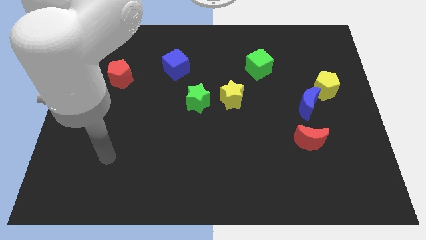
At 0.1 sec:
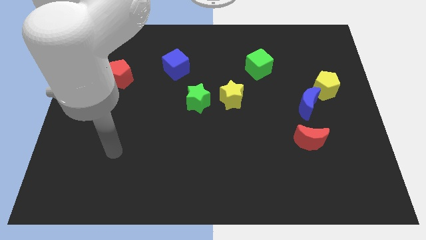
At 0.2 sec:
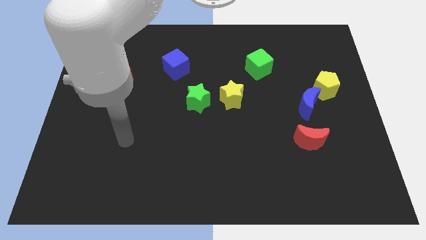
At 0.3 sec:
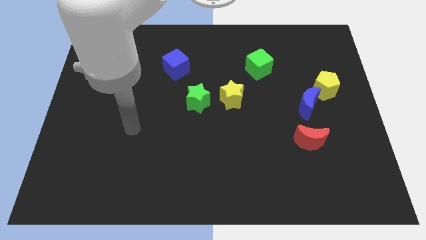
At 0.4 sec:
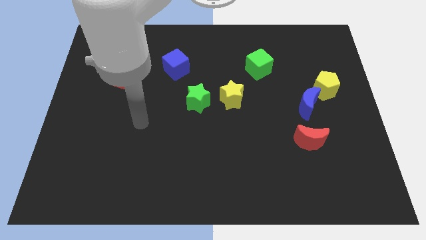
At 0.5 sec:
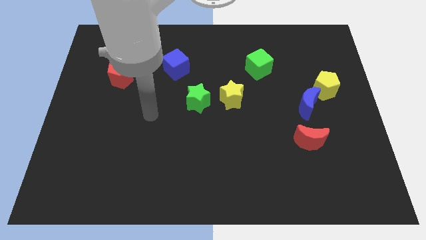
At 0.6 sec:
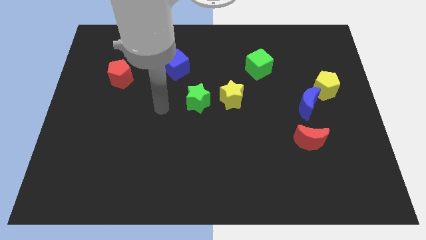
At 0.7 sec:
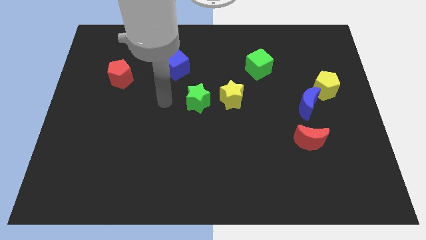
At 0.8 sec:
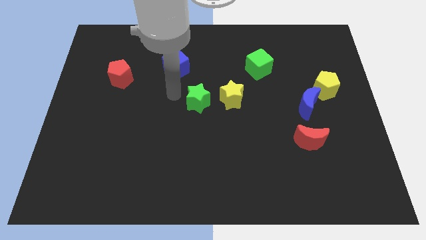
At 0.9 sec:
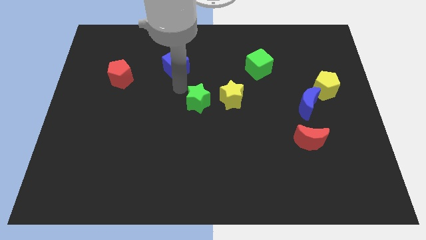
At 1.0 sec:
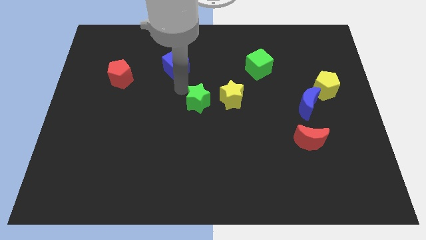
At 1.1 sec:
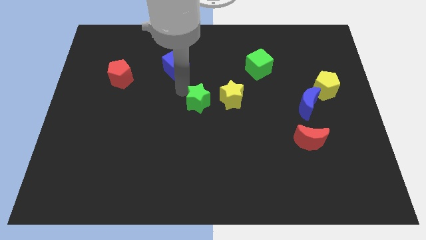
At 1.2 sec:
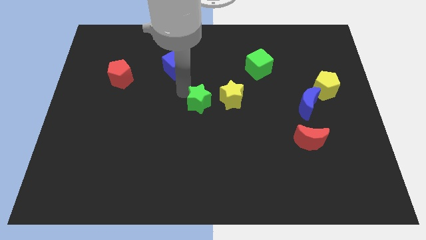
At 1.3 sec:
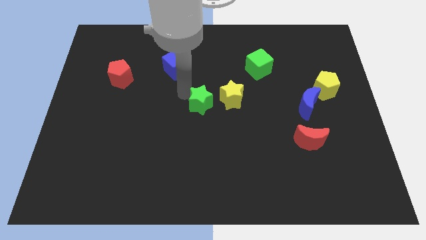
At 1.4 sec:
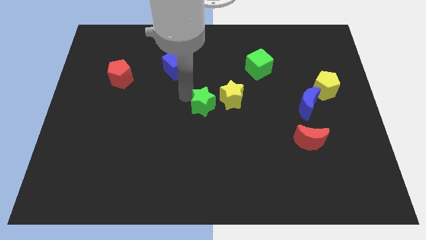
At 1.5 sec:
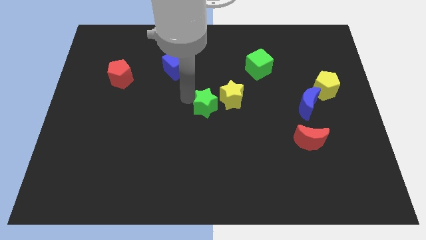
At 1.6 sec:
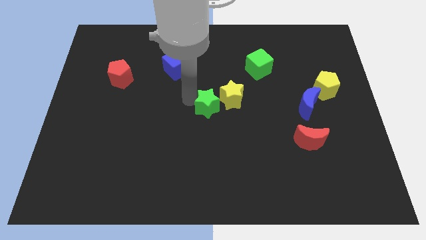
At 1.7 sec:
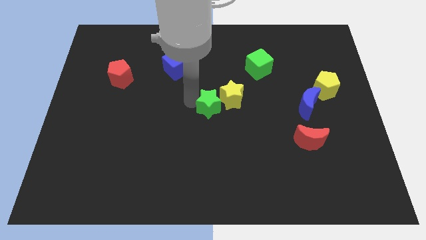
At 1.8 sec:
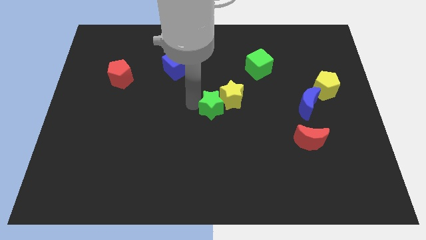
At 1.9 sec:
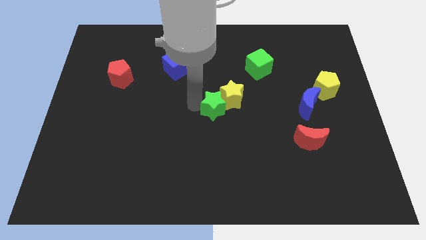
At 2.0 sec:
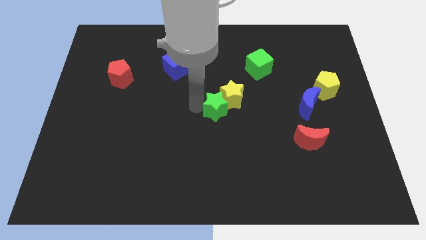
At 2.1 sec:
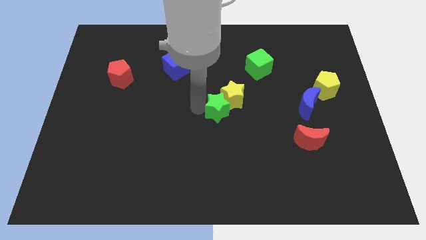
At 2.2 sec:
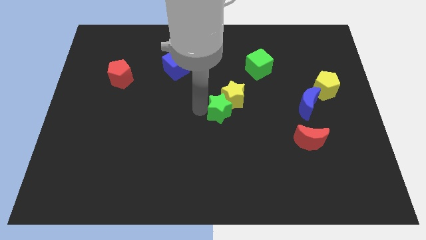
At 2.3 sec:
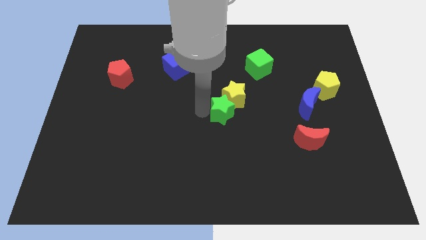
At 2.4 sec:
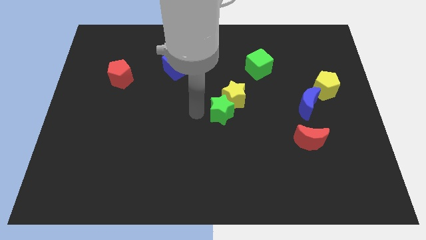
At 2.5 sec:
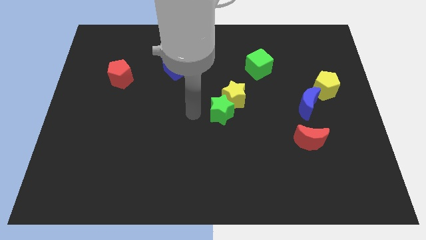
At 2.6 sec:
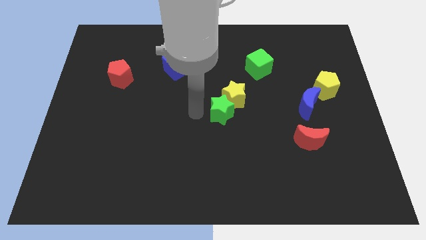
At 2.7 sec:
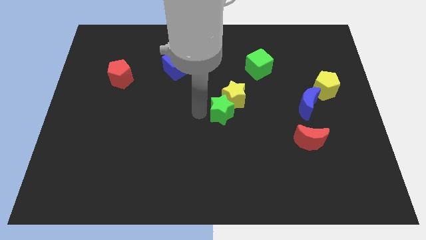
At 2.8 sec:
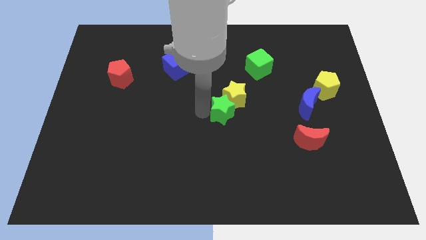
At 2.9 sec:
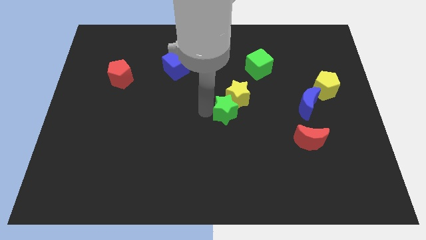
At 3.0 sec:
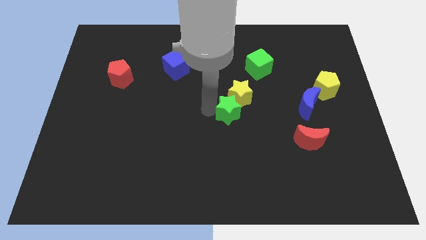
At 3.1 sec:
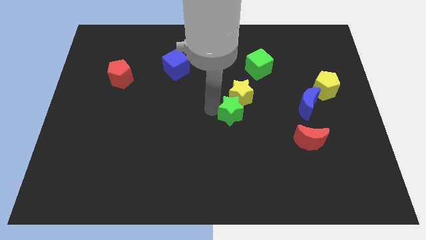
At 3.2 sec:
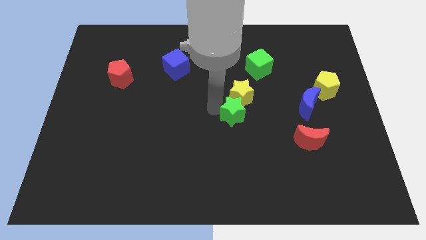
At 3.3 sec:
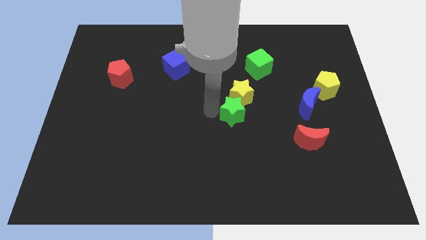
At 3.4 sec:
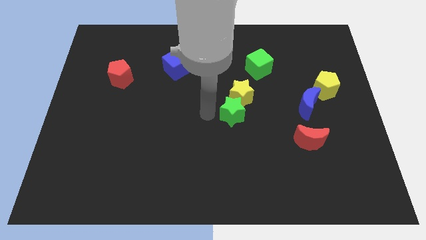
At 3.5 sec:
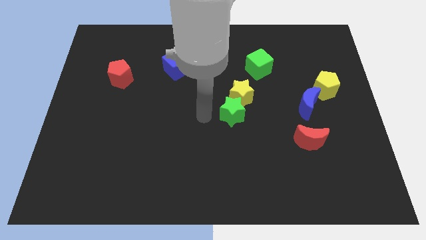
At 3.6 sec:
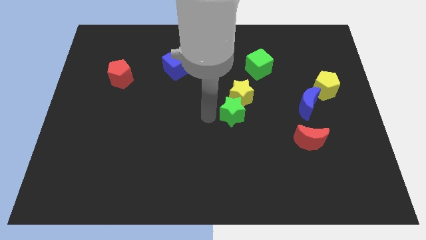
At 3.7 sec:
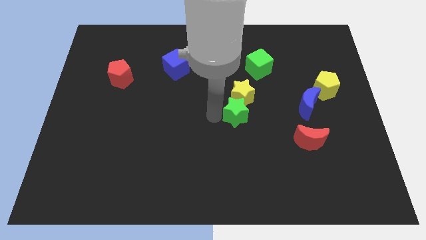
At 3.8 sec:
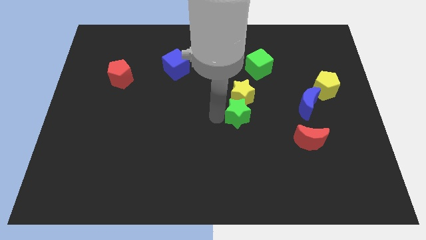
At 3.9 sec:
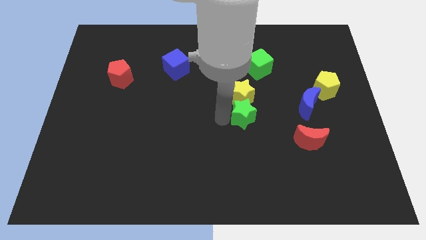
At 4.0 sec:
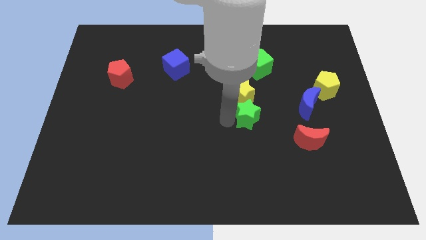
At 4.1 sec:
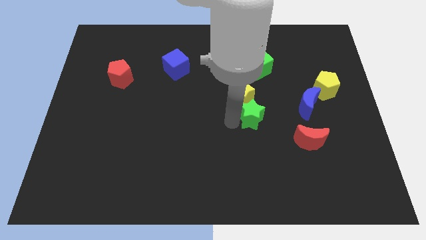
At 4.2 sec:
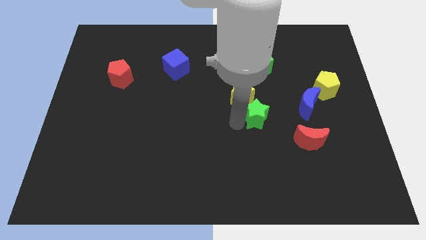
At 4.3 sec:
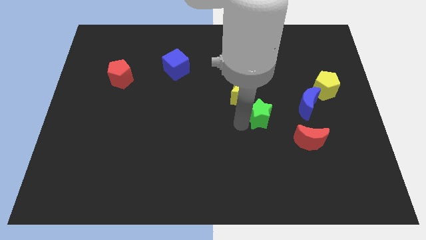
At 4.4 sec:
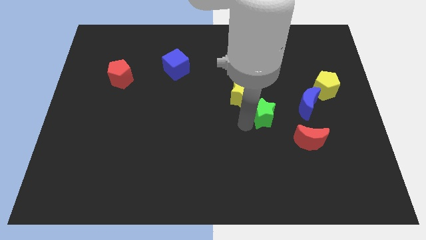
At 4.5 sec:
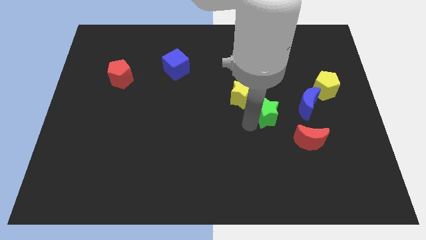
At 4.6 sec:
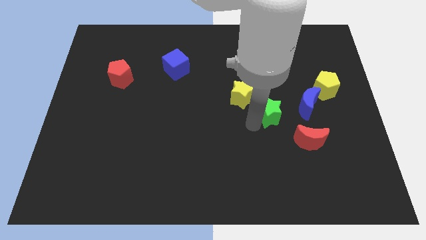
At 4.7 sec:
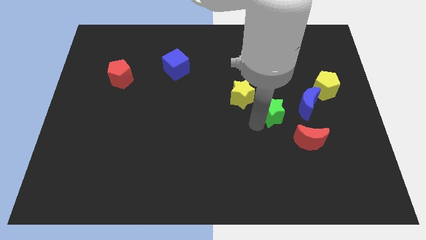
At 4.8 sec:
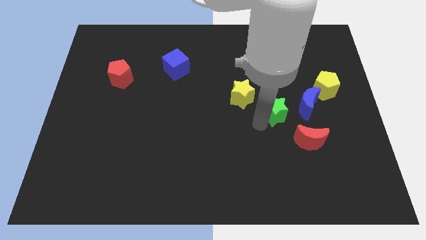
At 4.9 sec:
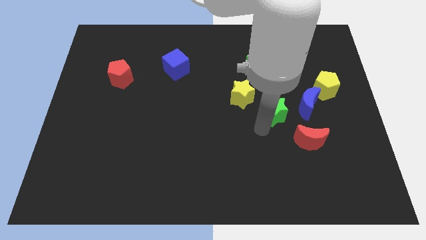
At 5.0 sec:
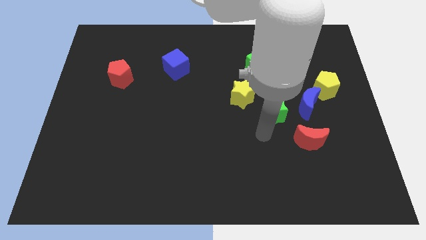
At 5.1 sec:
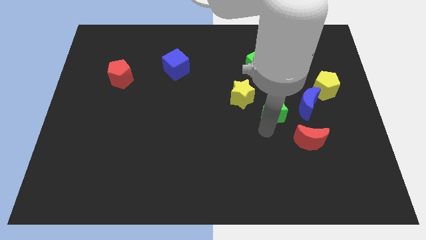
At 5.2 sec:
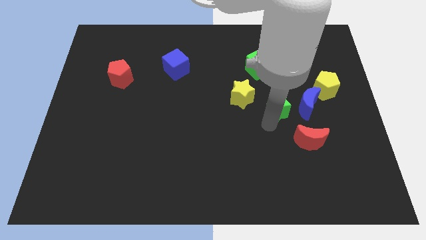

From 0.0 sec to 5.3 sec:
slide the green star to the right of the yellow star

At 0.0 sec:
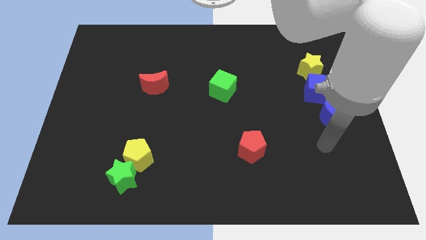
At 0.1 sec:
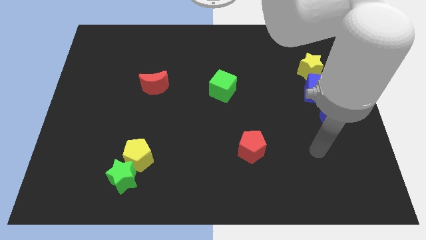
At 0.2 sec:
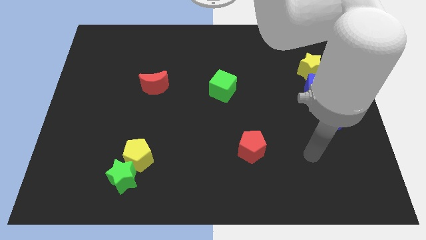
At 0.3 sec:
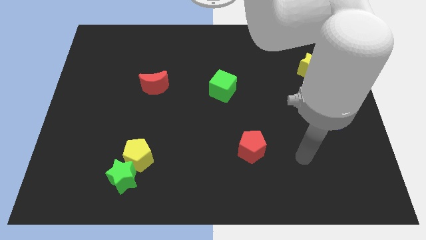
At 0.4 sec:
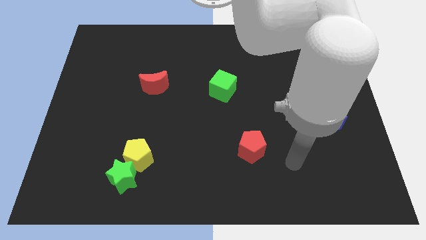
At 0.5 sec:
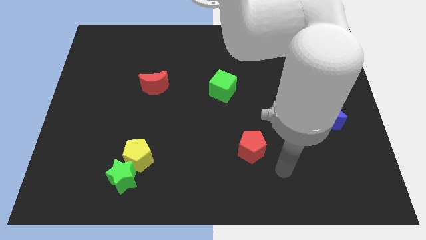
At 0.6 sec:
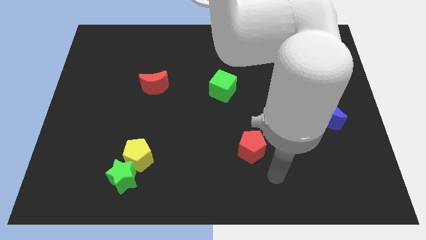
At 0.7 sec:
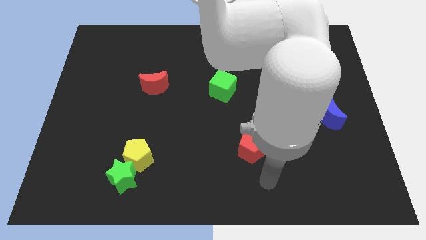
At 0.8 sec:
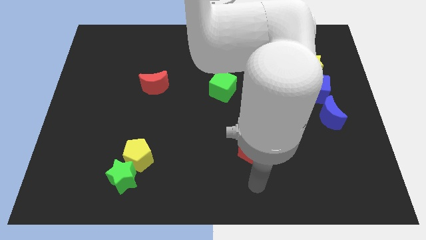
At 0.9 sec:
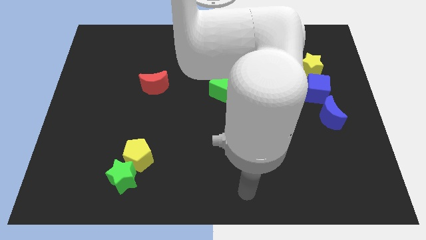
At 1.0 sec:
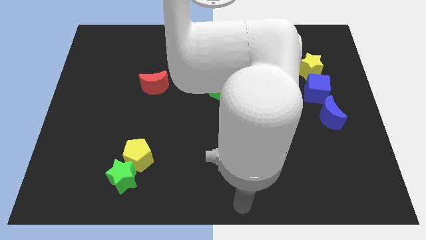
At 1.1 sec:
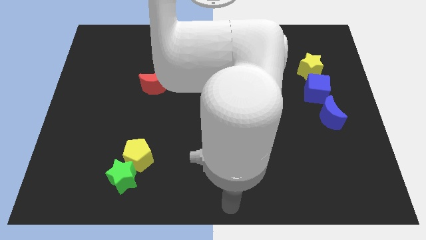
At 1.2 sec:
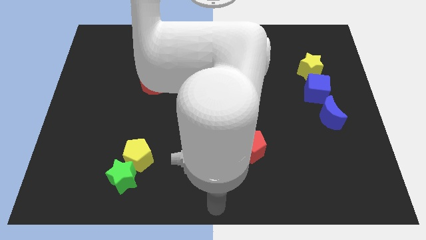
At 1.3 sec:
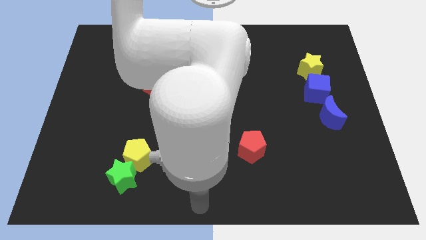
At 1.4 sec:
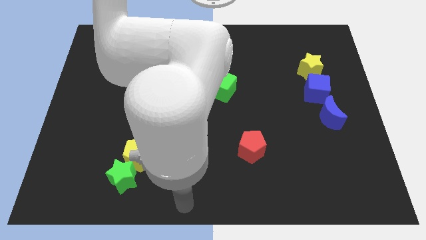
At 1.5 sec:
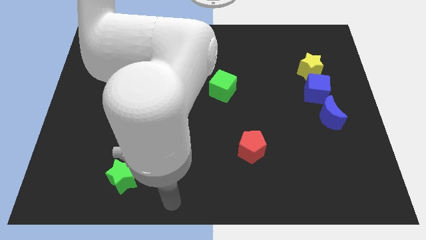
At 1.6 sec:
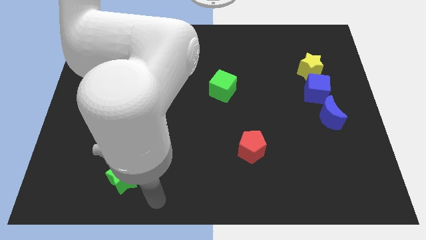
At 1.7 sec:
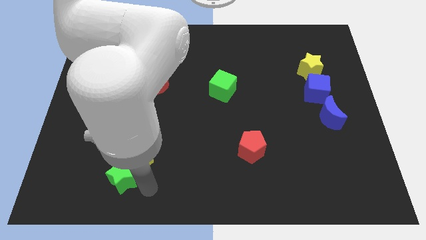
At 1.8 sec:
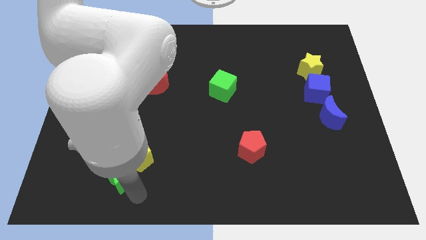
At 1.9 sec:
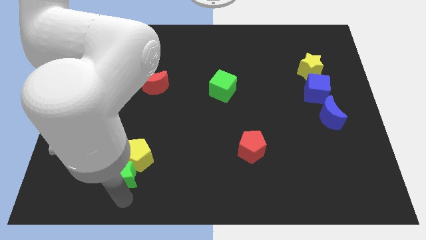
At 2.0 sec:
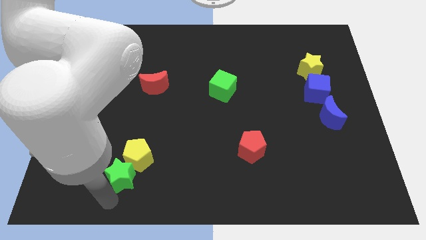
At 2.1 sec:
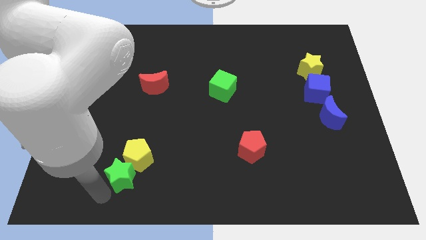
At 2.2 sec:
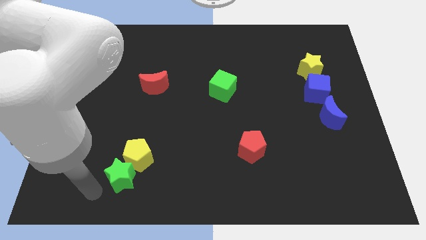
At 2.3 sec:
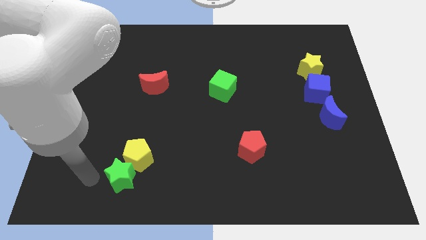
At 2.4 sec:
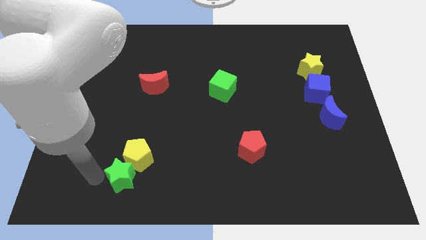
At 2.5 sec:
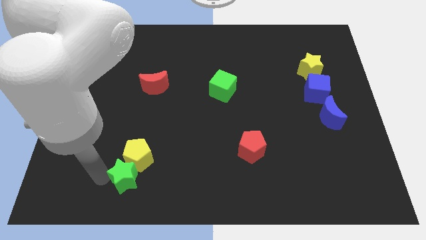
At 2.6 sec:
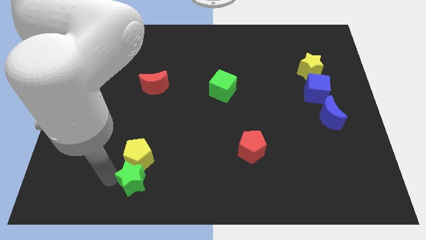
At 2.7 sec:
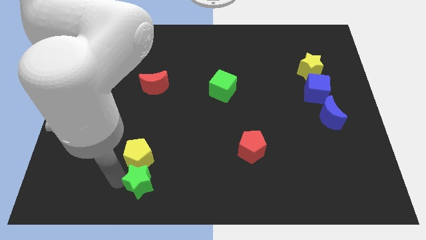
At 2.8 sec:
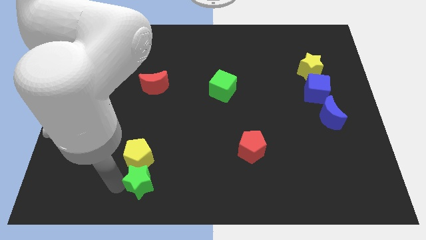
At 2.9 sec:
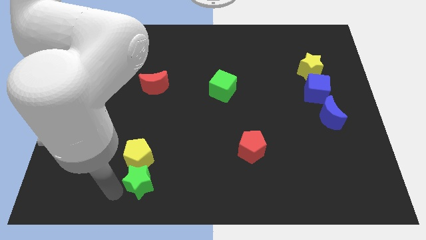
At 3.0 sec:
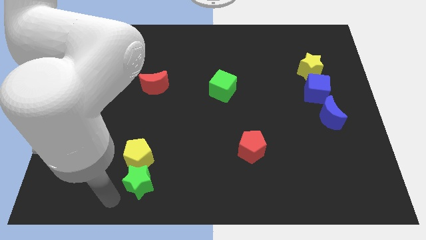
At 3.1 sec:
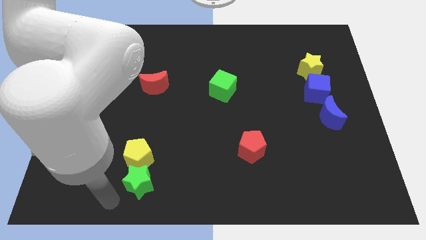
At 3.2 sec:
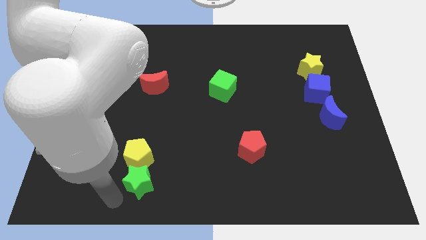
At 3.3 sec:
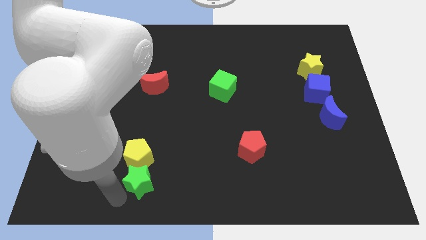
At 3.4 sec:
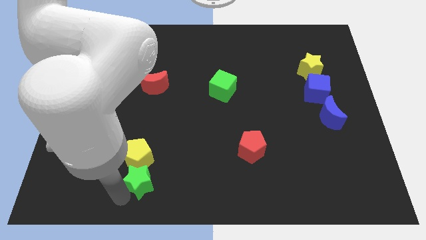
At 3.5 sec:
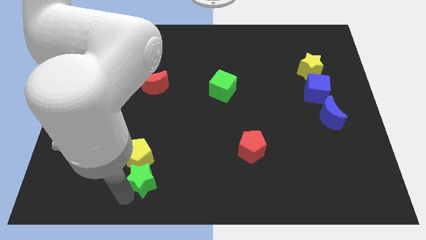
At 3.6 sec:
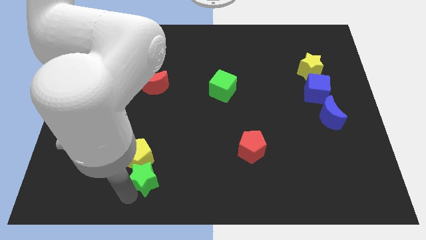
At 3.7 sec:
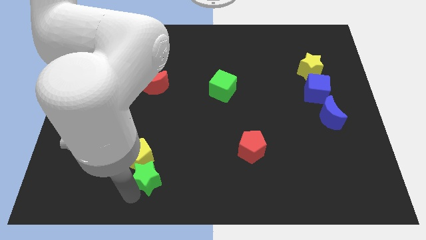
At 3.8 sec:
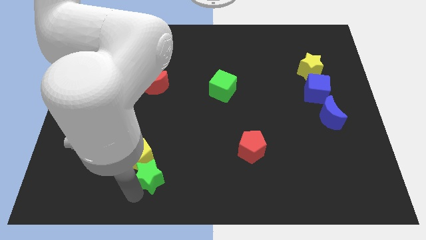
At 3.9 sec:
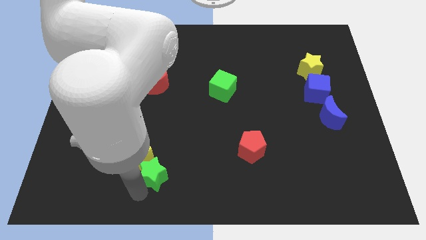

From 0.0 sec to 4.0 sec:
move the green star to the right side of the yellow pentagon
